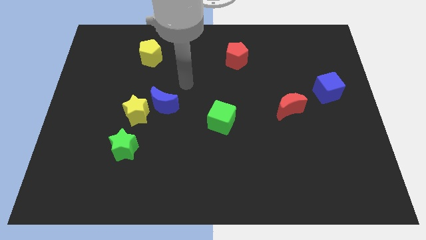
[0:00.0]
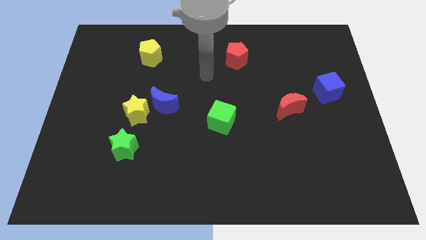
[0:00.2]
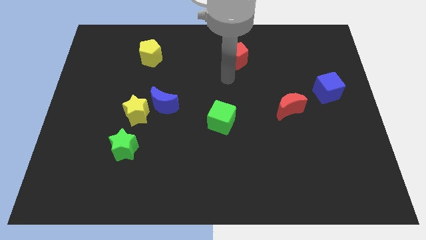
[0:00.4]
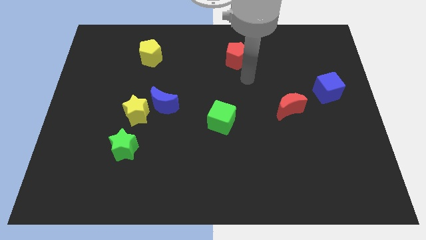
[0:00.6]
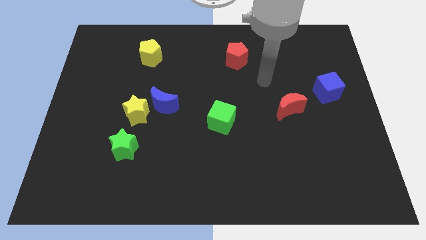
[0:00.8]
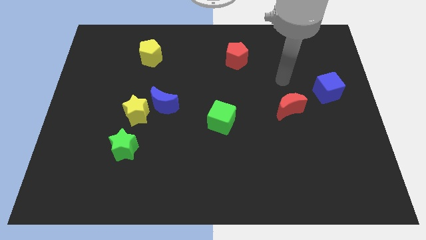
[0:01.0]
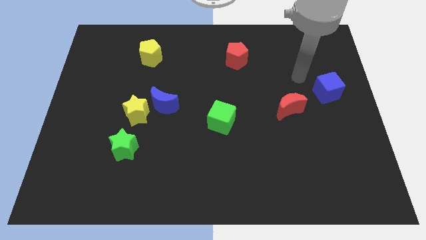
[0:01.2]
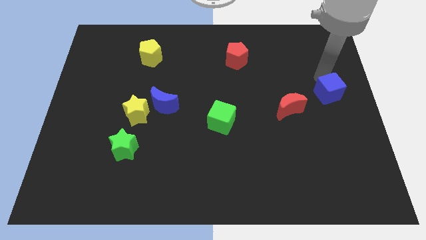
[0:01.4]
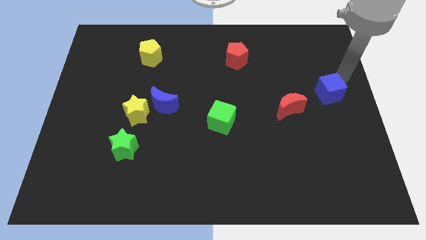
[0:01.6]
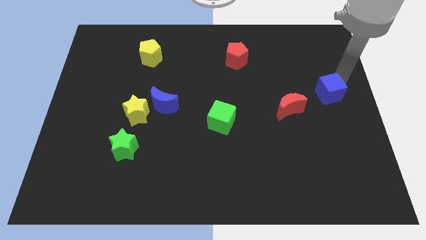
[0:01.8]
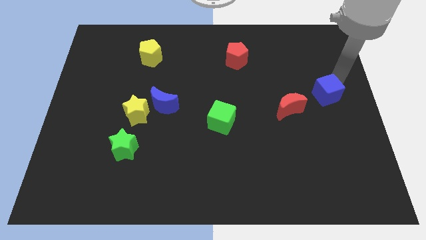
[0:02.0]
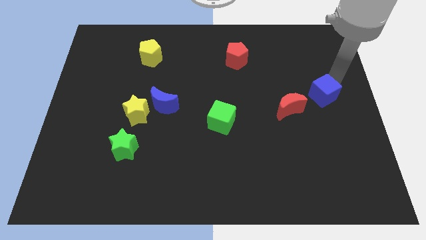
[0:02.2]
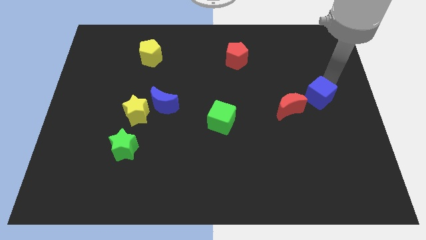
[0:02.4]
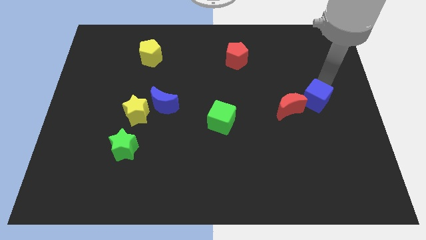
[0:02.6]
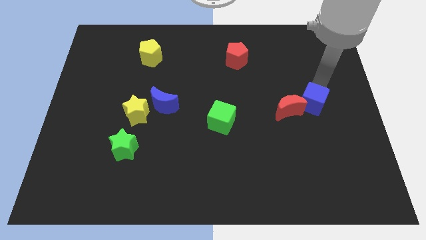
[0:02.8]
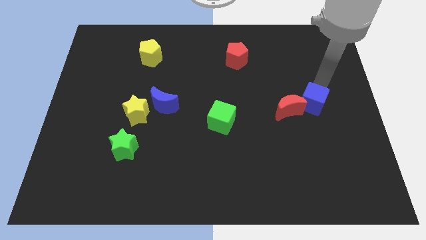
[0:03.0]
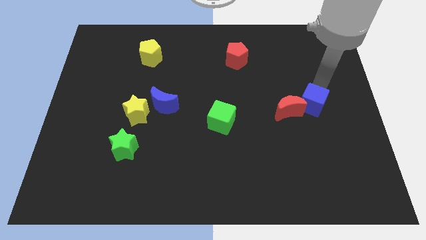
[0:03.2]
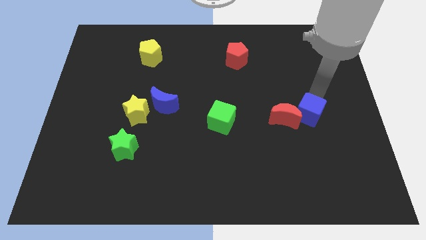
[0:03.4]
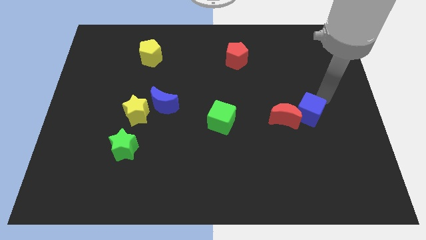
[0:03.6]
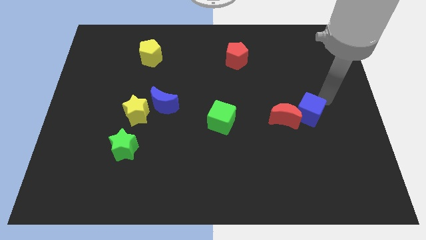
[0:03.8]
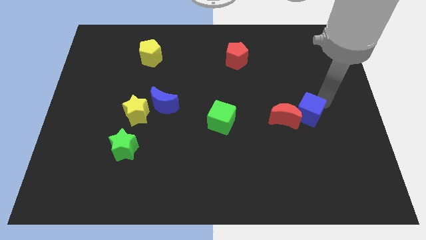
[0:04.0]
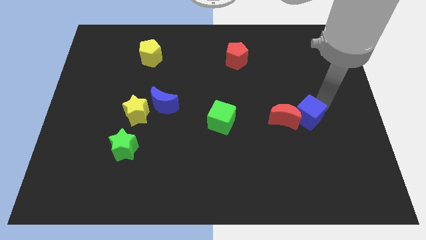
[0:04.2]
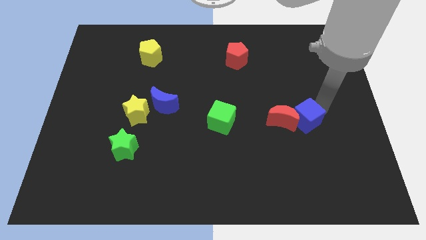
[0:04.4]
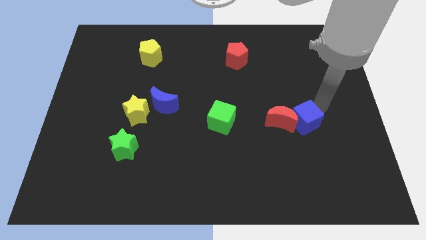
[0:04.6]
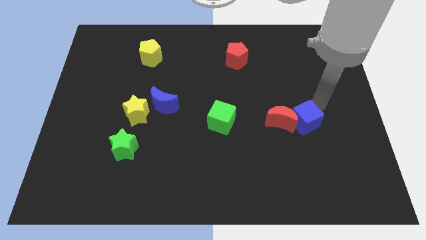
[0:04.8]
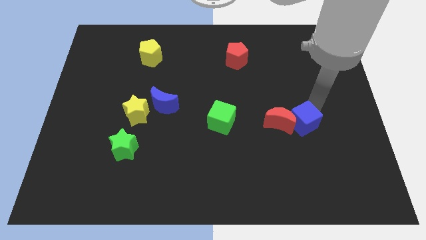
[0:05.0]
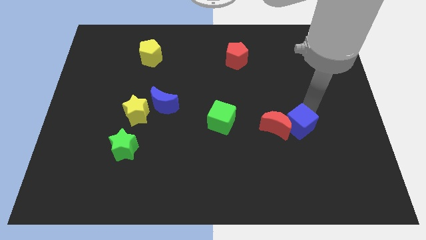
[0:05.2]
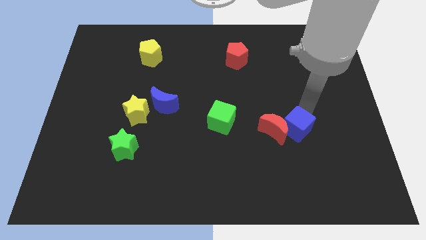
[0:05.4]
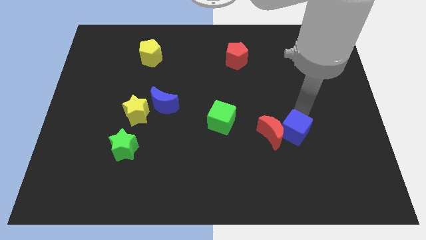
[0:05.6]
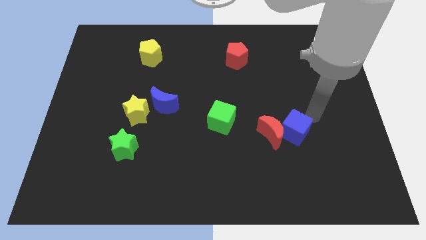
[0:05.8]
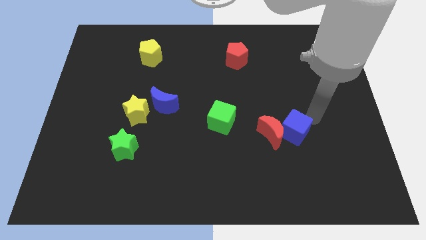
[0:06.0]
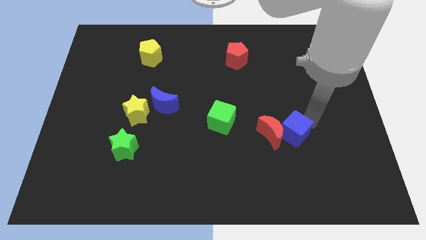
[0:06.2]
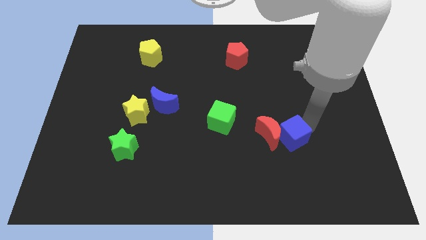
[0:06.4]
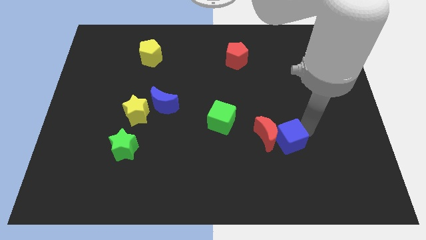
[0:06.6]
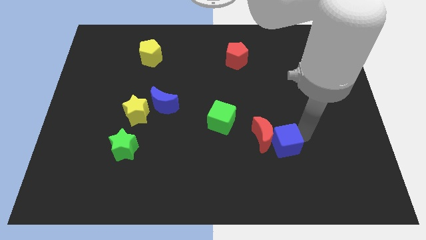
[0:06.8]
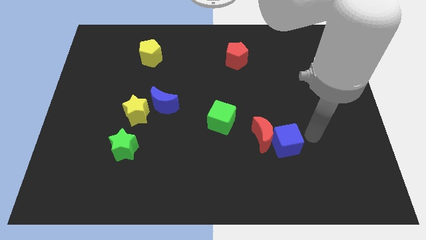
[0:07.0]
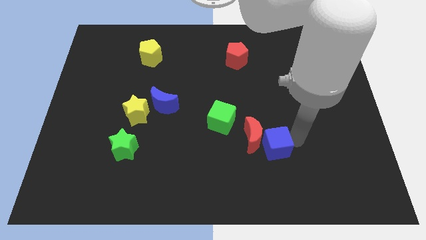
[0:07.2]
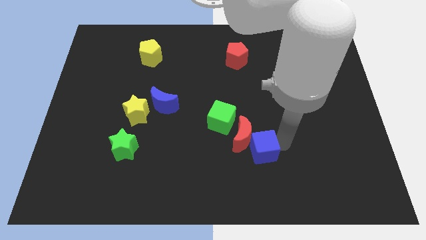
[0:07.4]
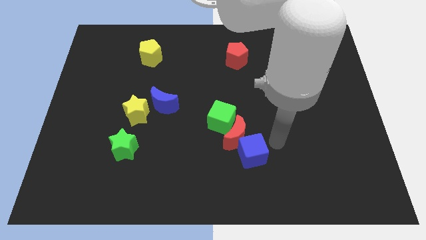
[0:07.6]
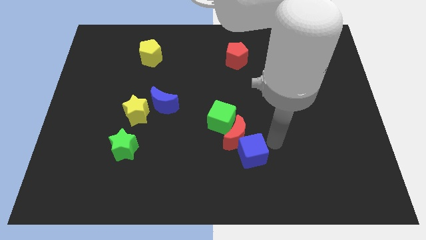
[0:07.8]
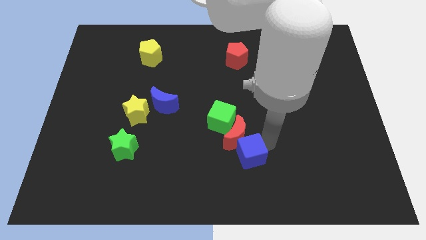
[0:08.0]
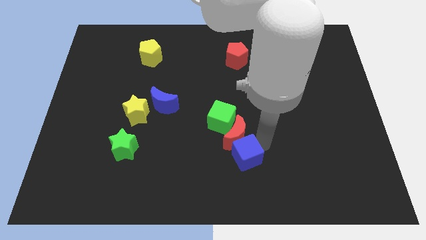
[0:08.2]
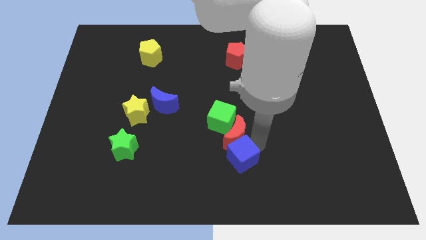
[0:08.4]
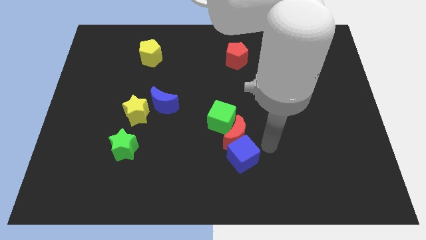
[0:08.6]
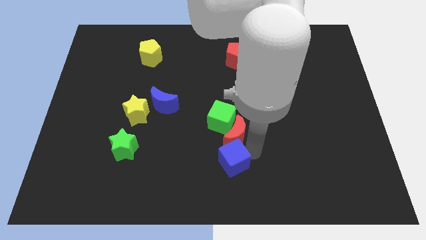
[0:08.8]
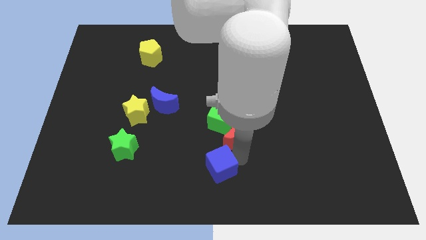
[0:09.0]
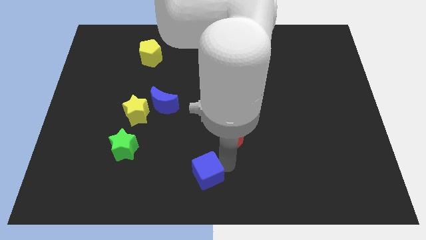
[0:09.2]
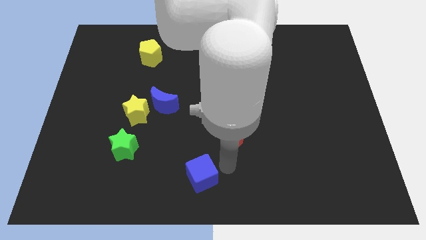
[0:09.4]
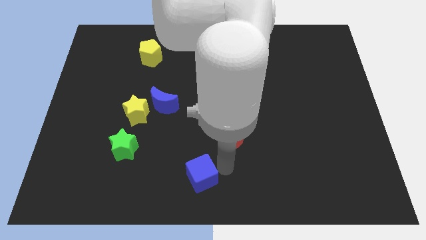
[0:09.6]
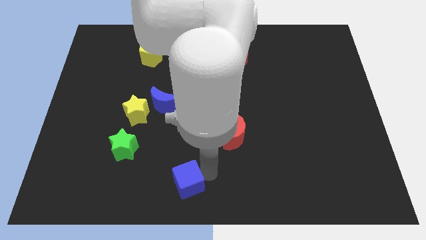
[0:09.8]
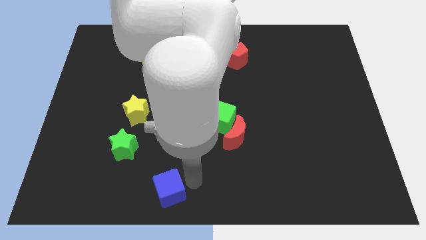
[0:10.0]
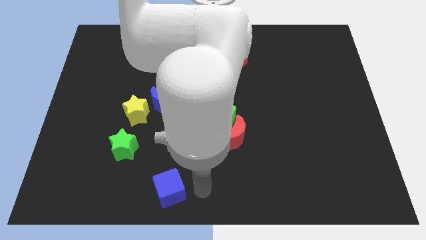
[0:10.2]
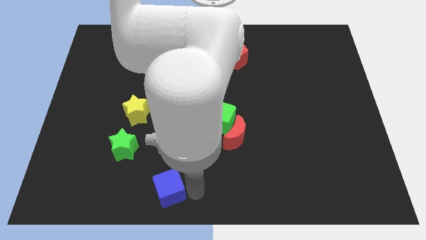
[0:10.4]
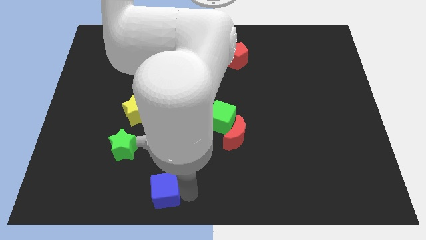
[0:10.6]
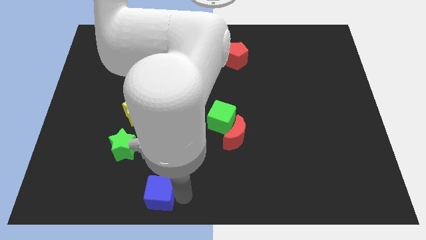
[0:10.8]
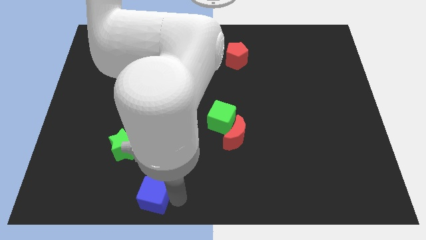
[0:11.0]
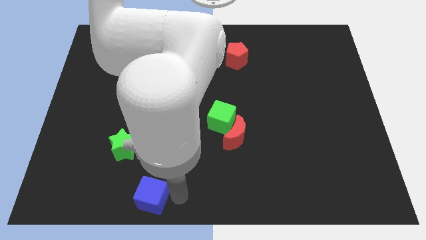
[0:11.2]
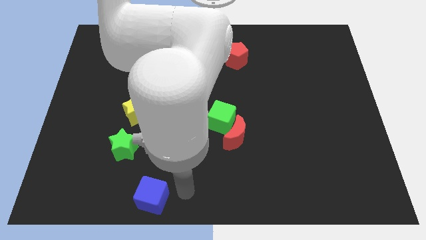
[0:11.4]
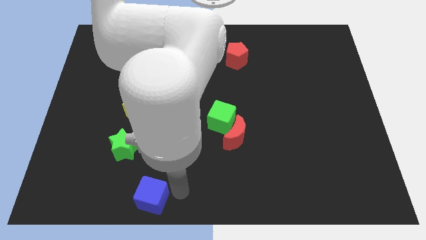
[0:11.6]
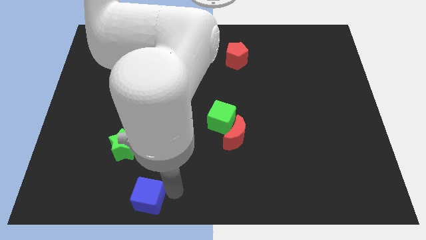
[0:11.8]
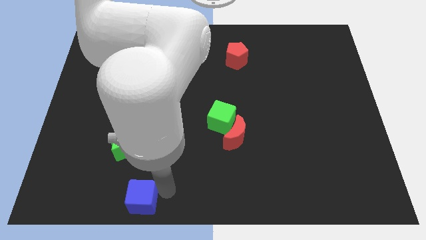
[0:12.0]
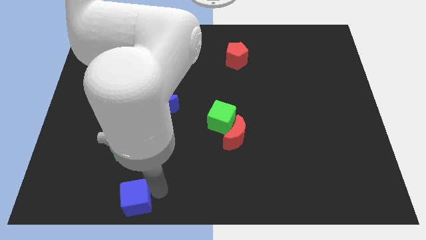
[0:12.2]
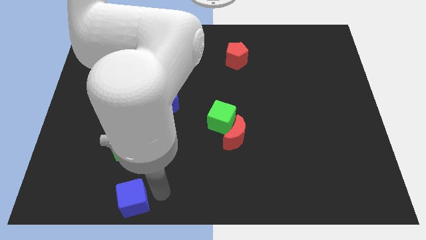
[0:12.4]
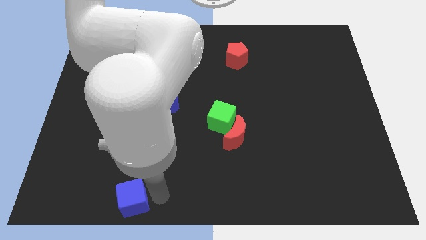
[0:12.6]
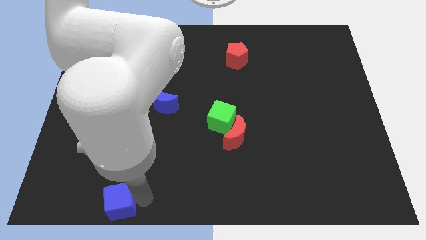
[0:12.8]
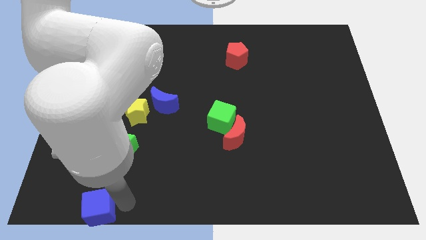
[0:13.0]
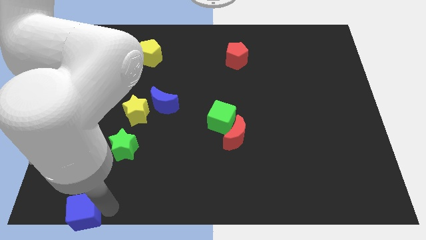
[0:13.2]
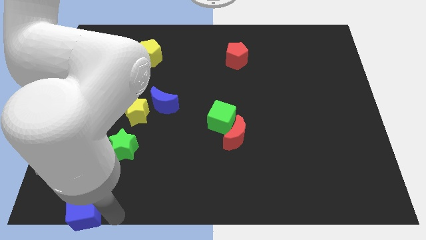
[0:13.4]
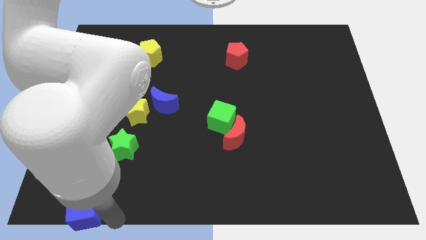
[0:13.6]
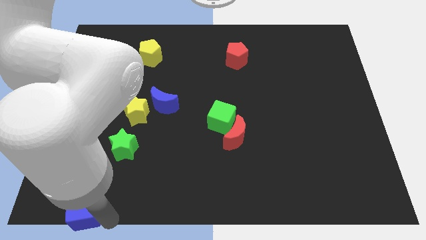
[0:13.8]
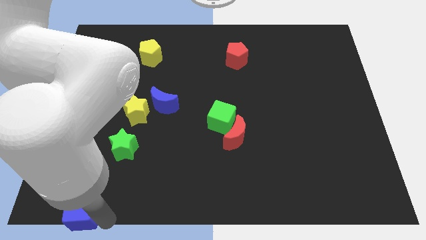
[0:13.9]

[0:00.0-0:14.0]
slide the blue cube to the bottom left corner
